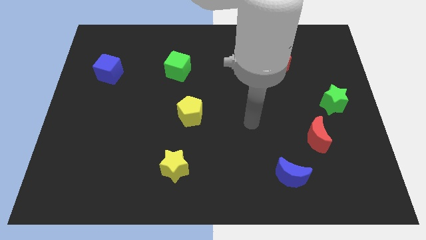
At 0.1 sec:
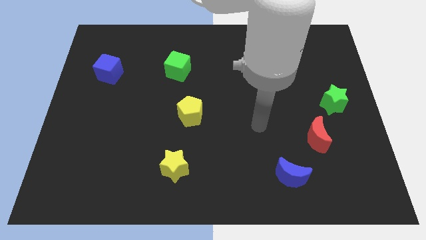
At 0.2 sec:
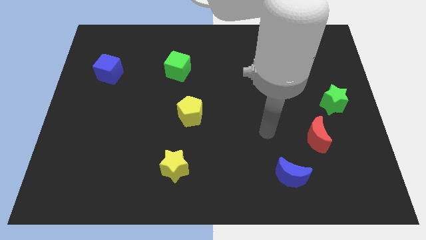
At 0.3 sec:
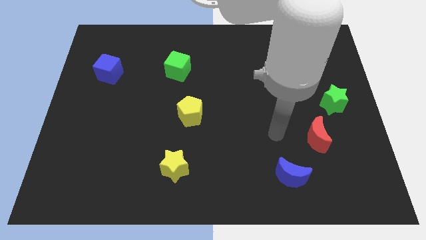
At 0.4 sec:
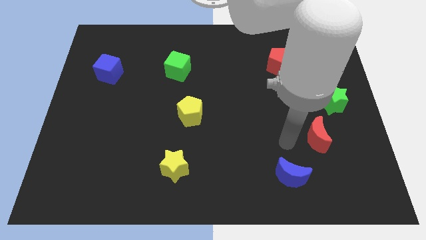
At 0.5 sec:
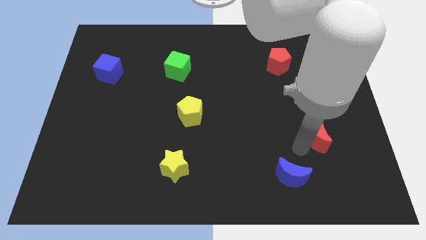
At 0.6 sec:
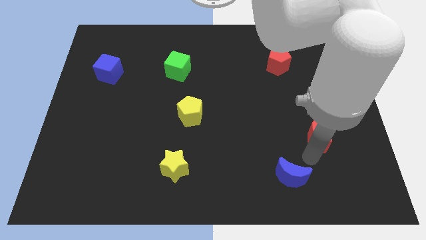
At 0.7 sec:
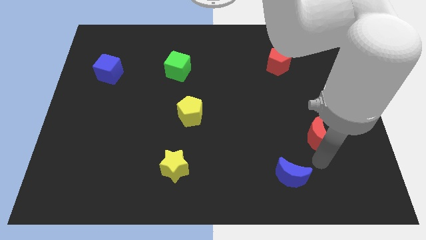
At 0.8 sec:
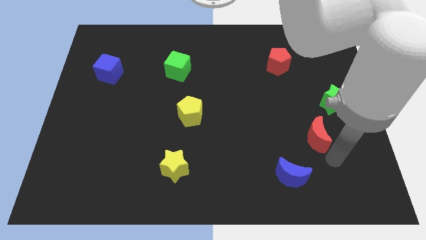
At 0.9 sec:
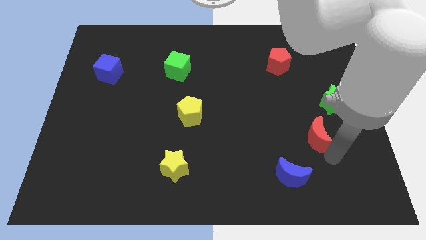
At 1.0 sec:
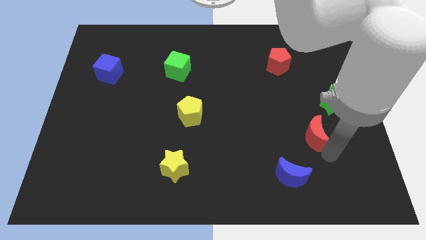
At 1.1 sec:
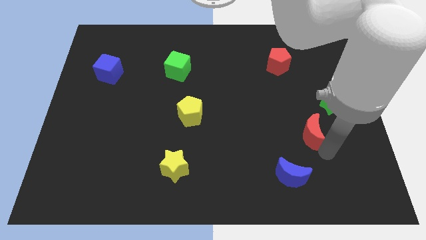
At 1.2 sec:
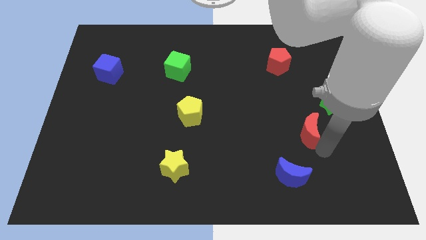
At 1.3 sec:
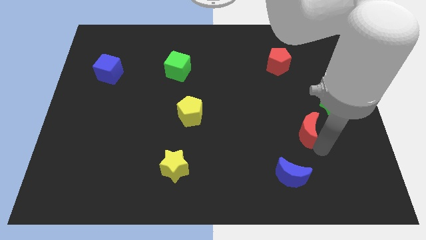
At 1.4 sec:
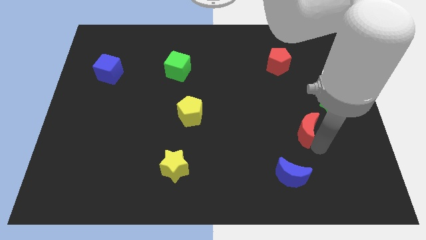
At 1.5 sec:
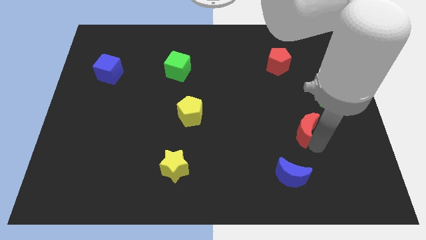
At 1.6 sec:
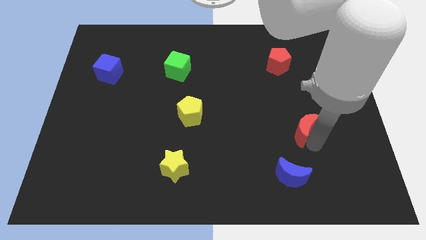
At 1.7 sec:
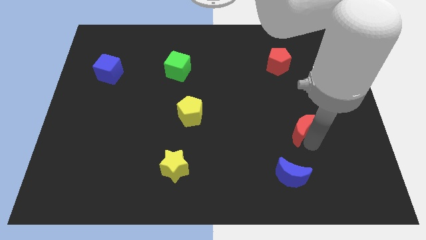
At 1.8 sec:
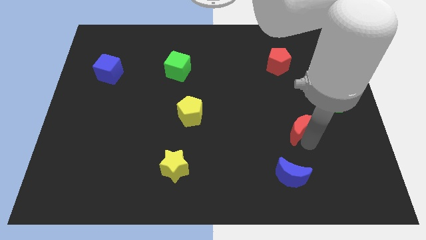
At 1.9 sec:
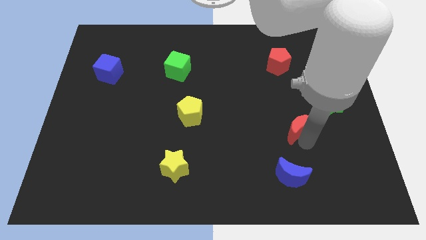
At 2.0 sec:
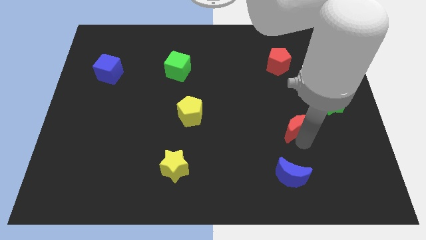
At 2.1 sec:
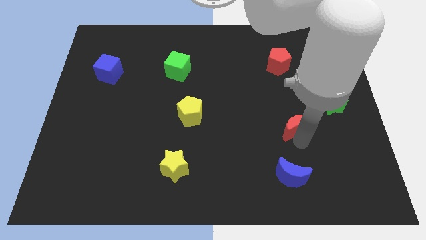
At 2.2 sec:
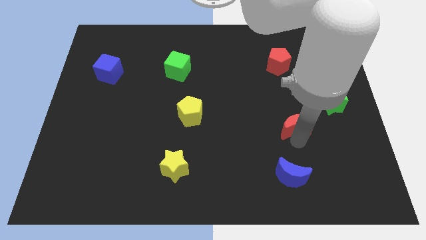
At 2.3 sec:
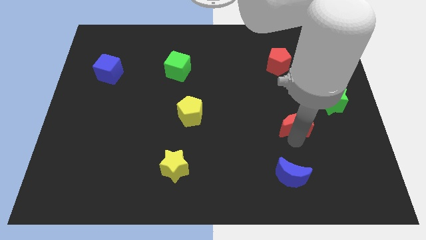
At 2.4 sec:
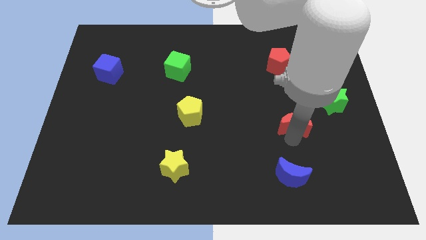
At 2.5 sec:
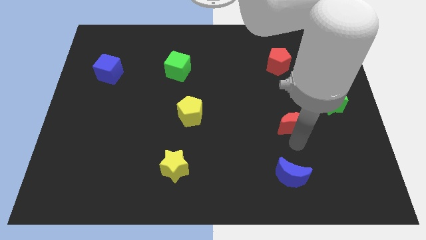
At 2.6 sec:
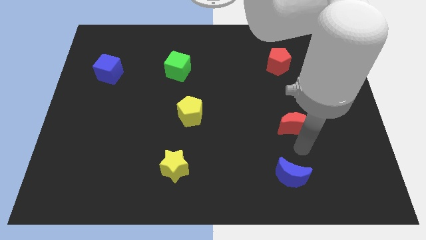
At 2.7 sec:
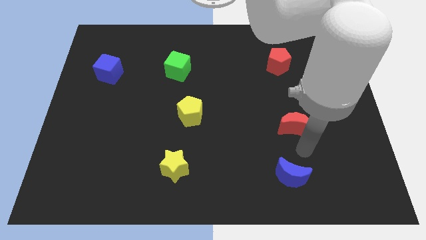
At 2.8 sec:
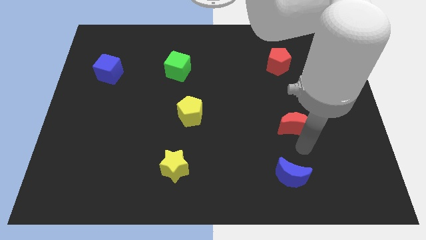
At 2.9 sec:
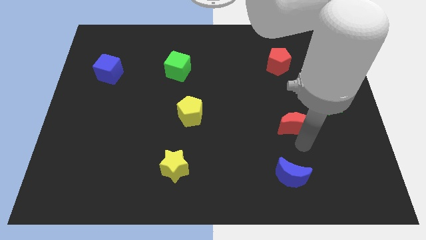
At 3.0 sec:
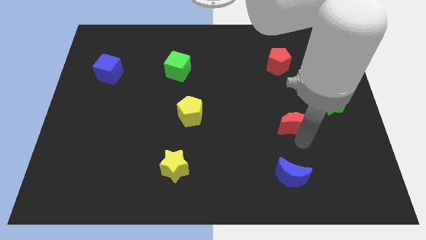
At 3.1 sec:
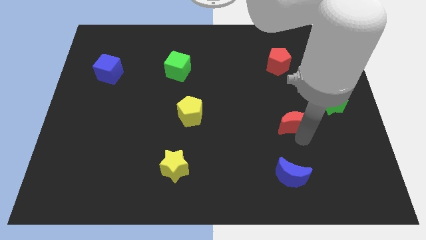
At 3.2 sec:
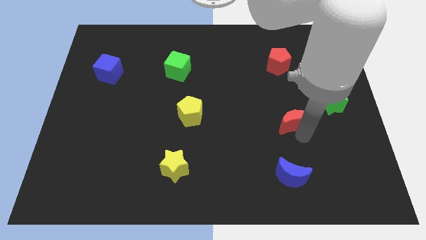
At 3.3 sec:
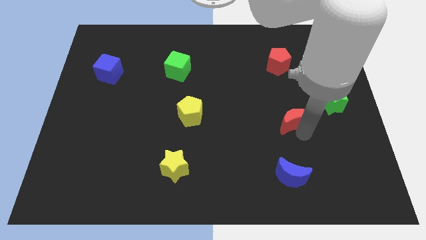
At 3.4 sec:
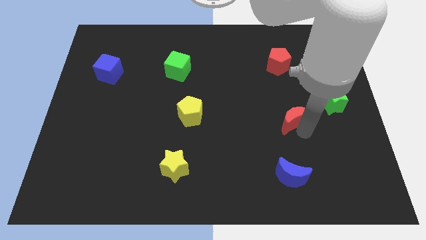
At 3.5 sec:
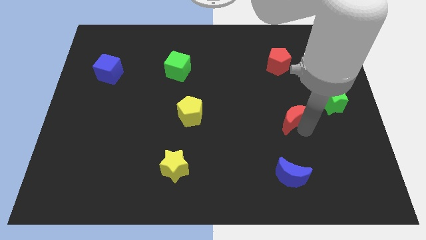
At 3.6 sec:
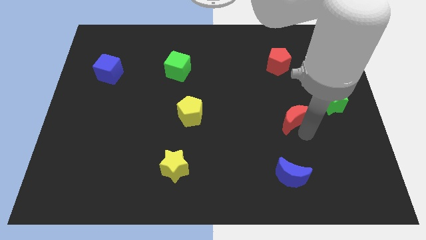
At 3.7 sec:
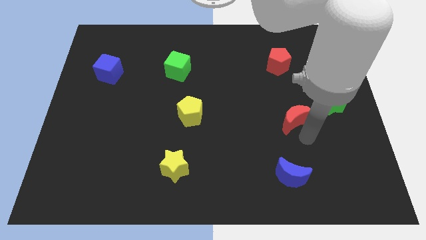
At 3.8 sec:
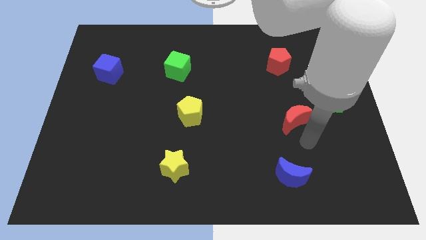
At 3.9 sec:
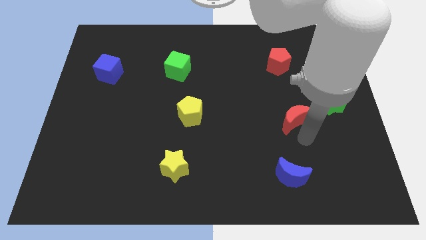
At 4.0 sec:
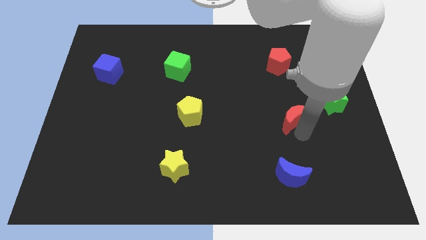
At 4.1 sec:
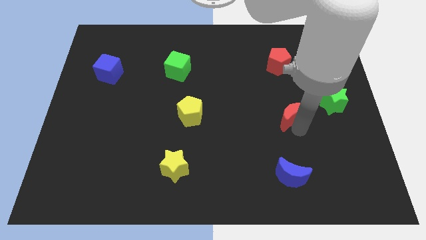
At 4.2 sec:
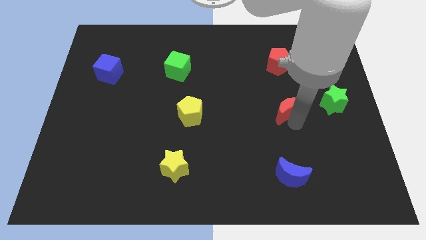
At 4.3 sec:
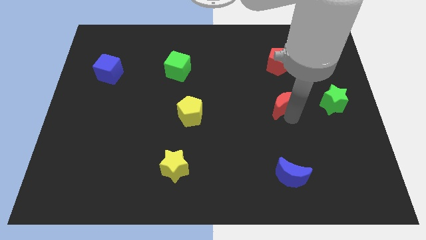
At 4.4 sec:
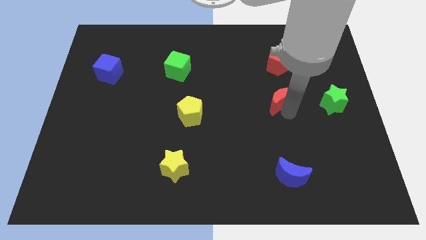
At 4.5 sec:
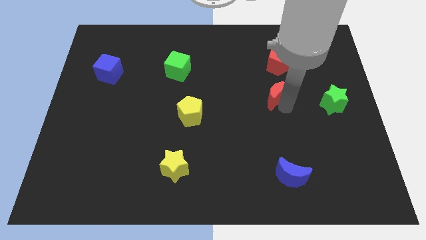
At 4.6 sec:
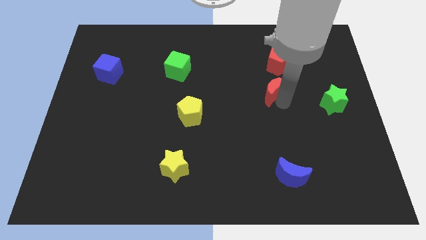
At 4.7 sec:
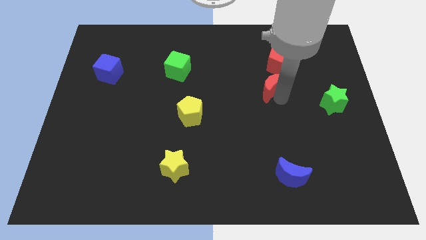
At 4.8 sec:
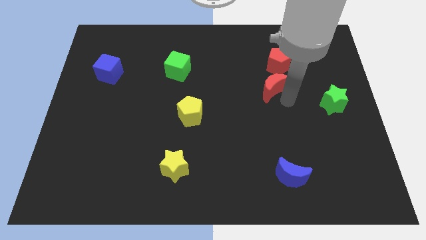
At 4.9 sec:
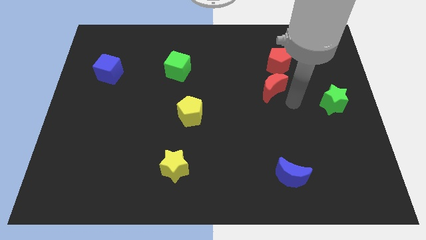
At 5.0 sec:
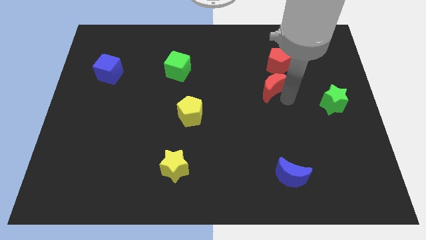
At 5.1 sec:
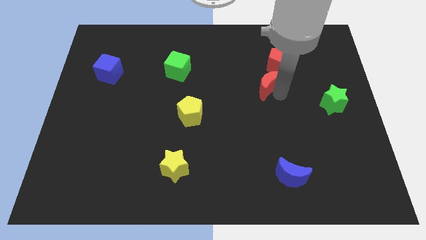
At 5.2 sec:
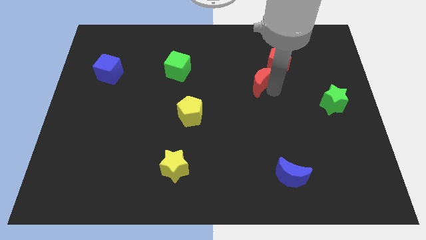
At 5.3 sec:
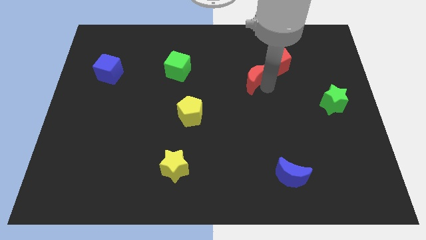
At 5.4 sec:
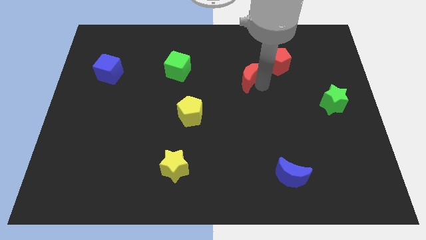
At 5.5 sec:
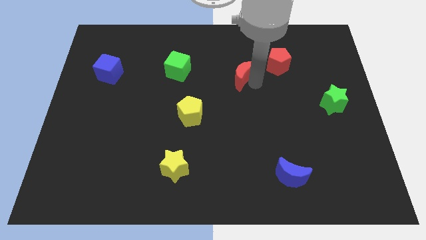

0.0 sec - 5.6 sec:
push the red moon left of the red pentagon

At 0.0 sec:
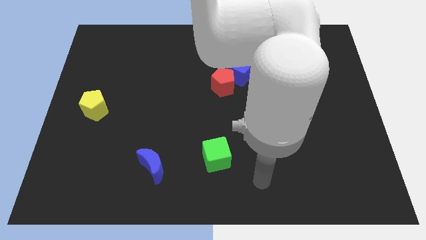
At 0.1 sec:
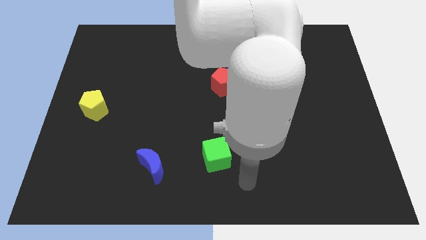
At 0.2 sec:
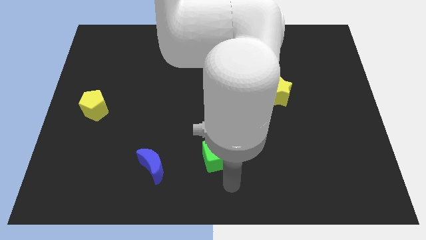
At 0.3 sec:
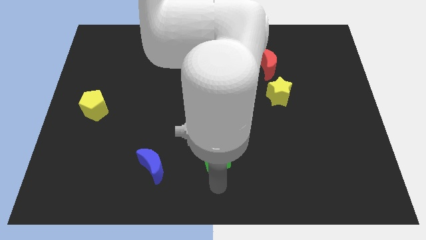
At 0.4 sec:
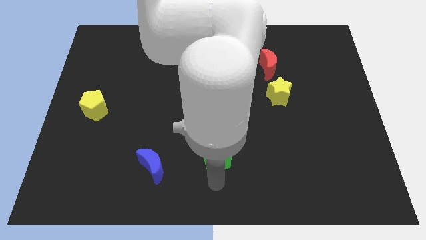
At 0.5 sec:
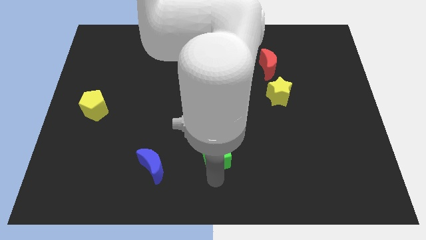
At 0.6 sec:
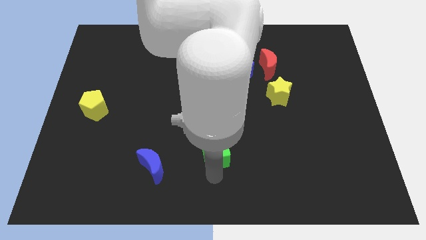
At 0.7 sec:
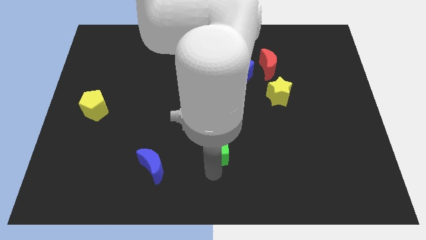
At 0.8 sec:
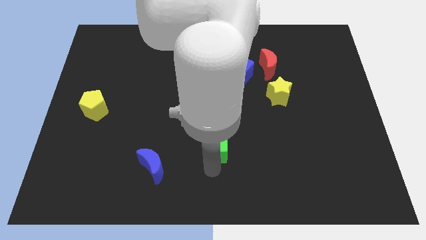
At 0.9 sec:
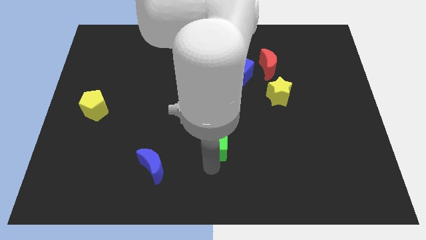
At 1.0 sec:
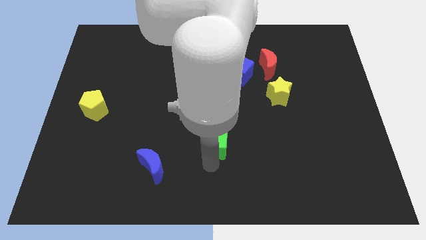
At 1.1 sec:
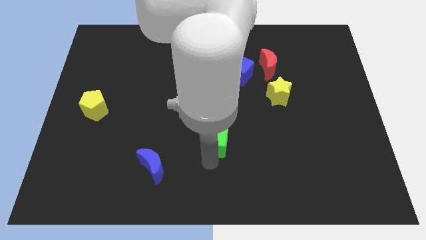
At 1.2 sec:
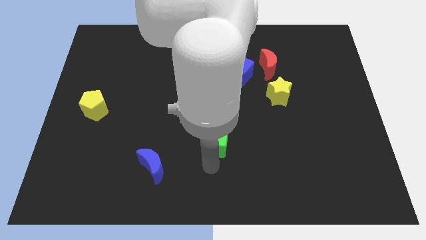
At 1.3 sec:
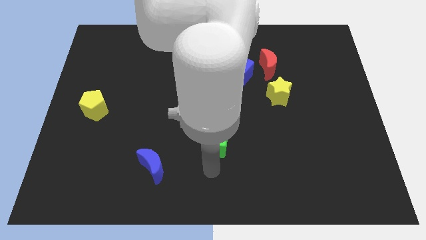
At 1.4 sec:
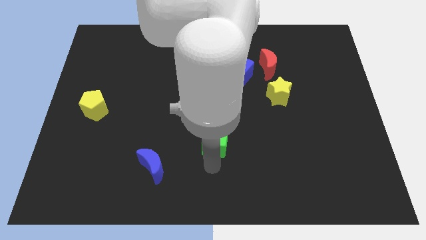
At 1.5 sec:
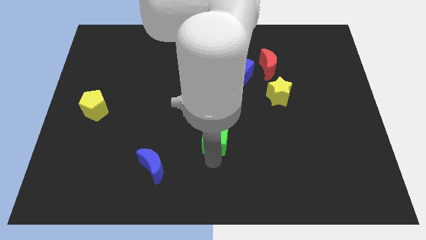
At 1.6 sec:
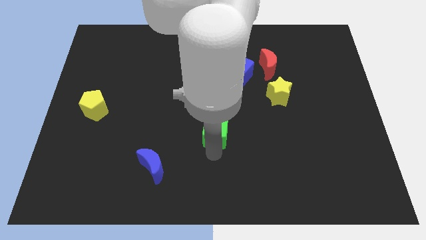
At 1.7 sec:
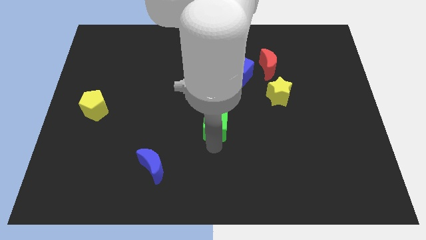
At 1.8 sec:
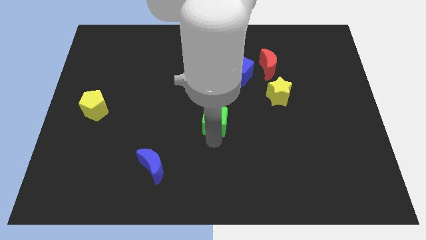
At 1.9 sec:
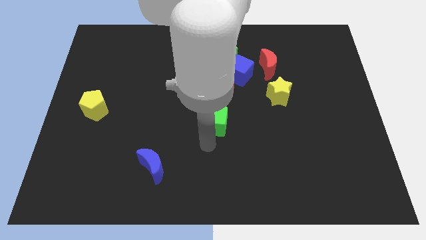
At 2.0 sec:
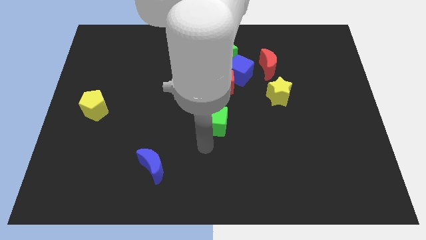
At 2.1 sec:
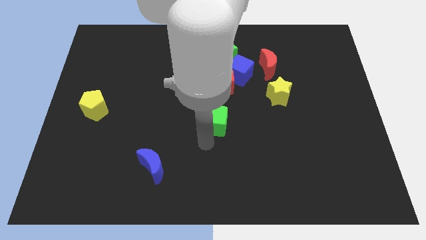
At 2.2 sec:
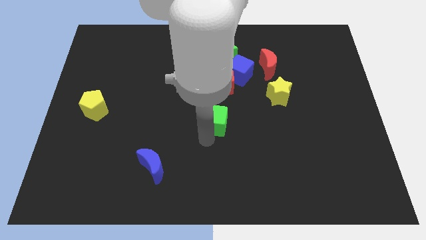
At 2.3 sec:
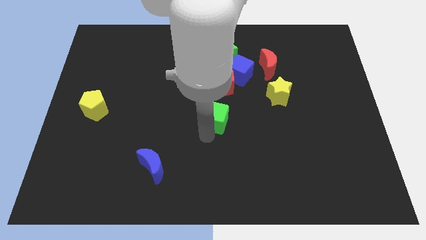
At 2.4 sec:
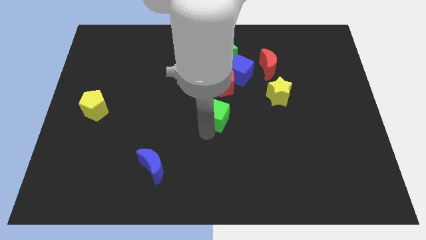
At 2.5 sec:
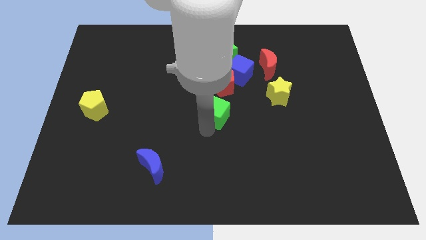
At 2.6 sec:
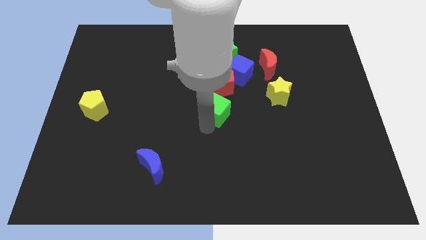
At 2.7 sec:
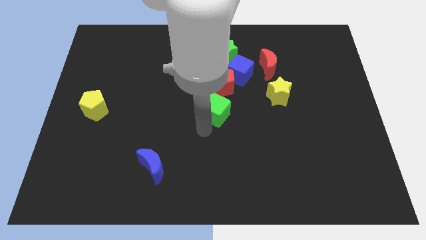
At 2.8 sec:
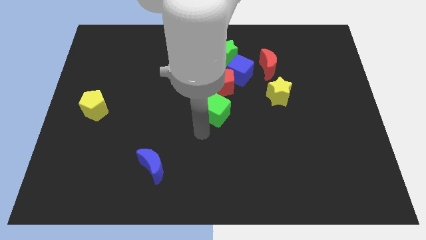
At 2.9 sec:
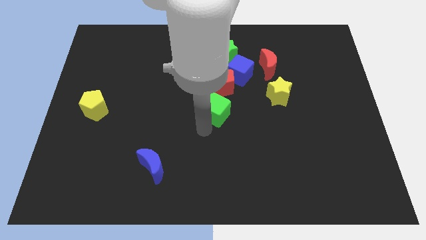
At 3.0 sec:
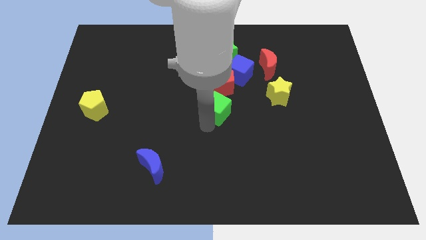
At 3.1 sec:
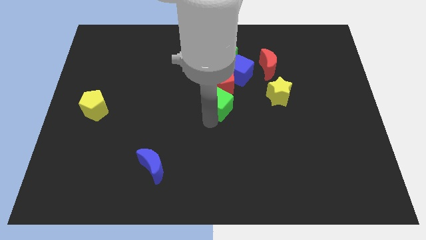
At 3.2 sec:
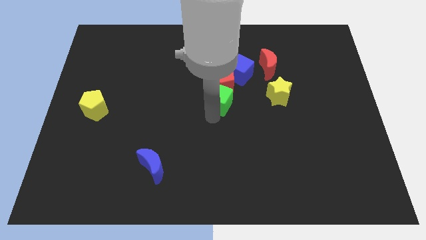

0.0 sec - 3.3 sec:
move the green cube to the bottom of the green star
